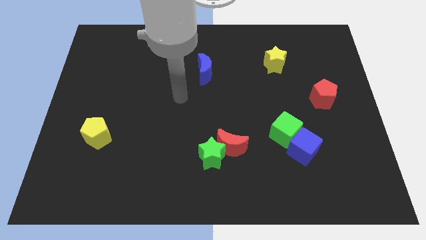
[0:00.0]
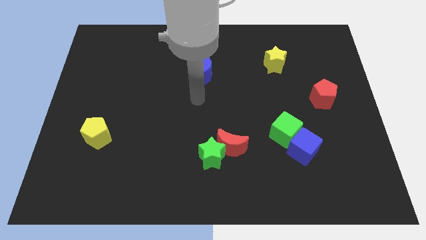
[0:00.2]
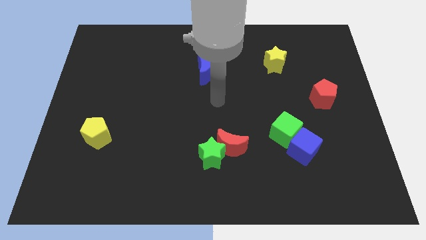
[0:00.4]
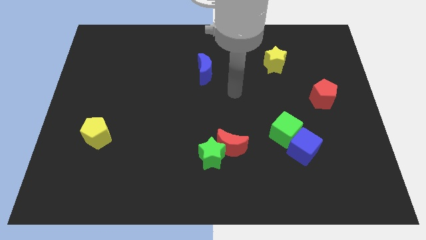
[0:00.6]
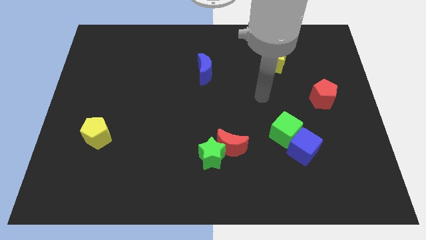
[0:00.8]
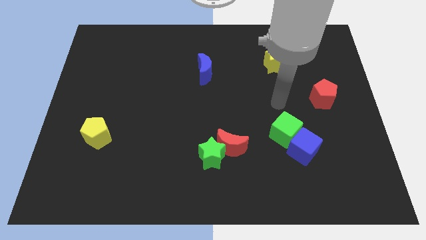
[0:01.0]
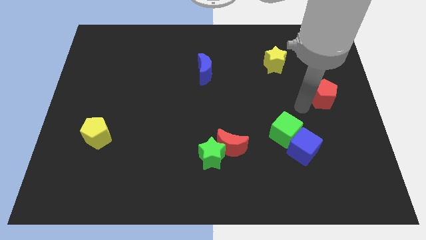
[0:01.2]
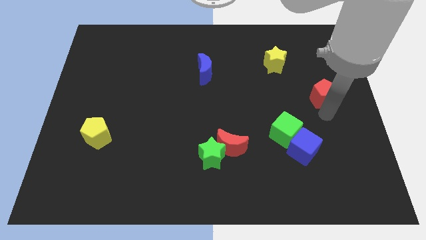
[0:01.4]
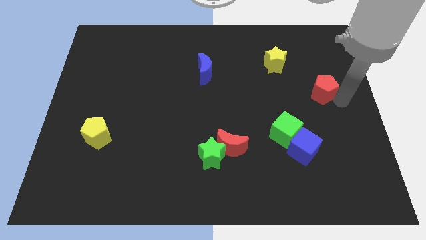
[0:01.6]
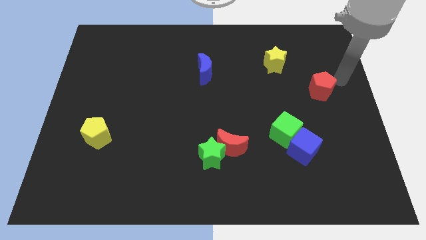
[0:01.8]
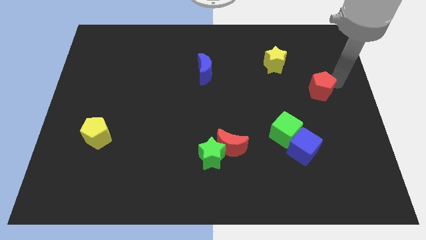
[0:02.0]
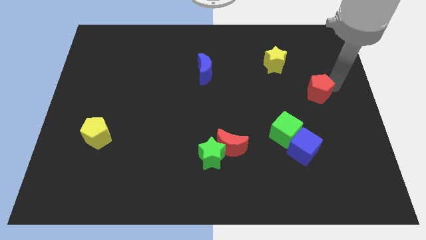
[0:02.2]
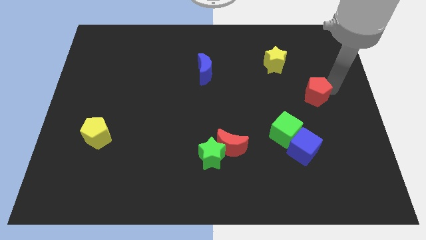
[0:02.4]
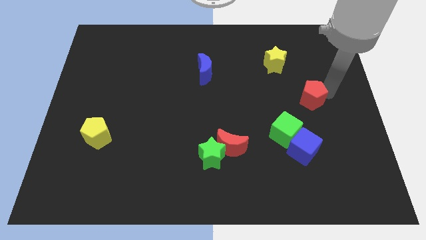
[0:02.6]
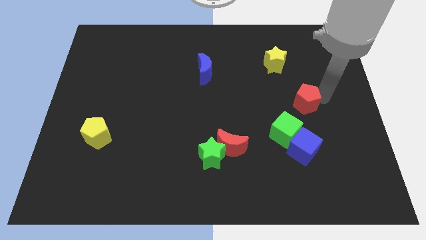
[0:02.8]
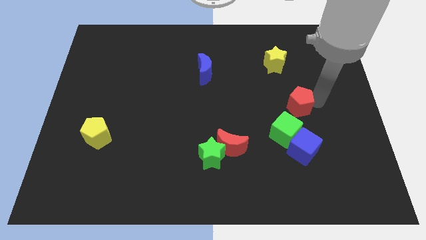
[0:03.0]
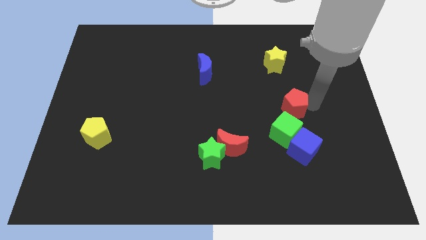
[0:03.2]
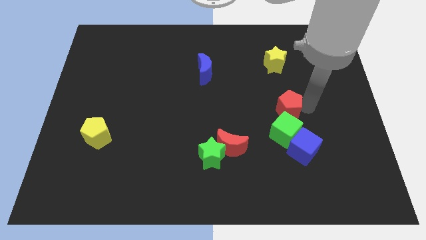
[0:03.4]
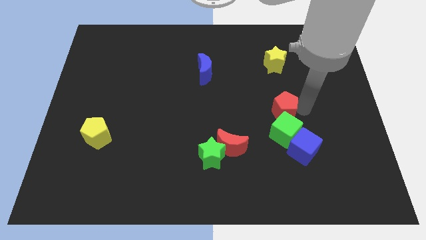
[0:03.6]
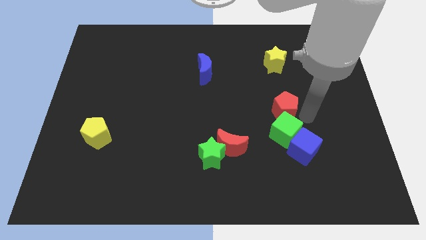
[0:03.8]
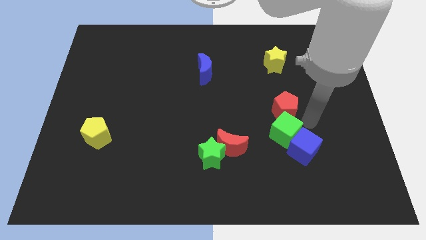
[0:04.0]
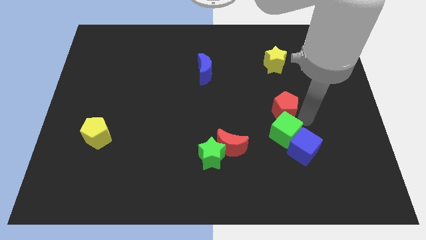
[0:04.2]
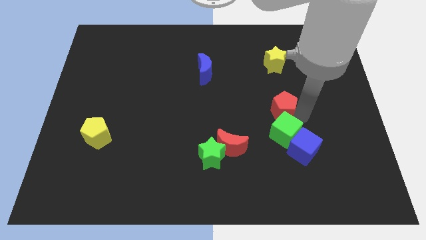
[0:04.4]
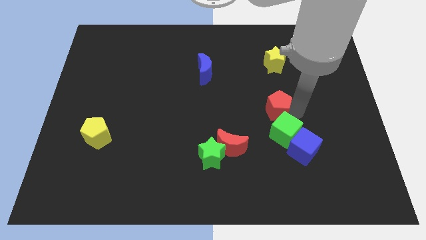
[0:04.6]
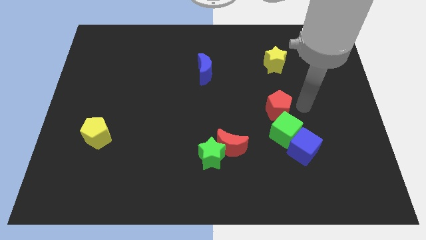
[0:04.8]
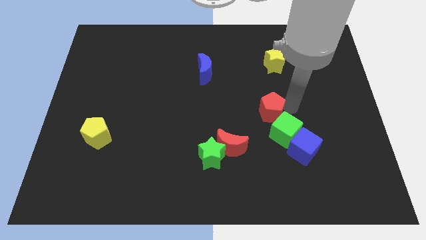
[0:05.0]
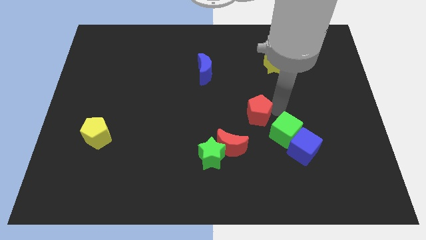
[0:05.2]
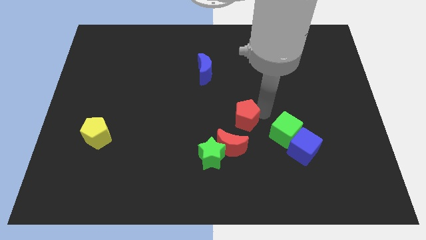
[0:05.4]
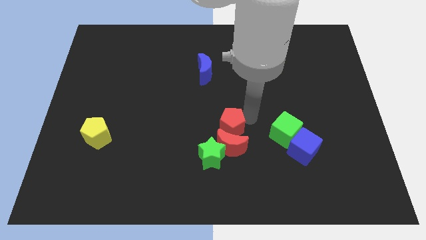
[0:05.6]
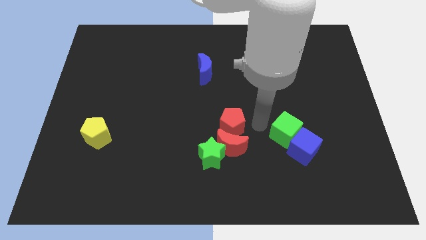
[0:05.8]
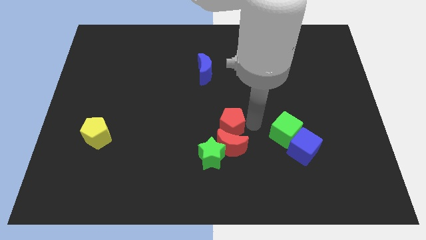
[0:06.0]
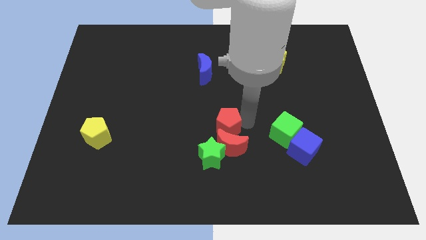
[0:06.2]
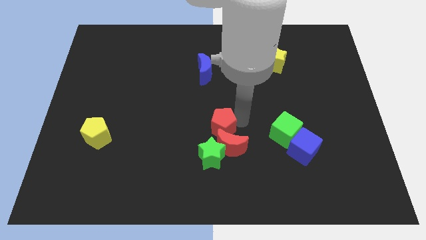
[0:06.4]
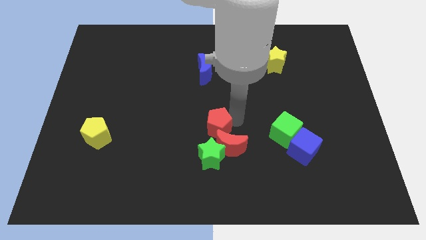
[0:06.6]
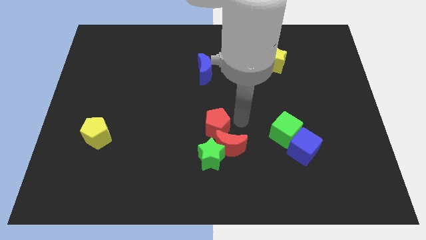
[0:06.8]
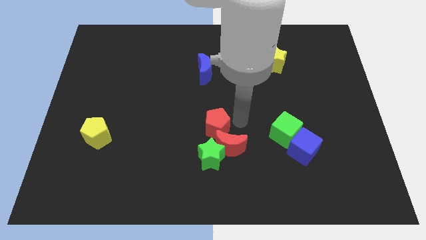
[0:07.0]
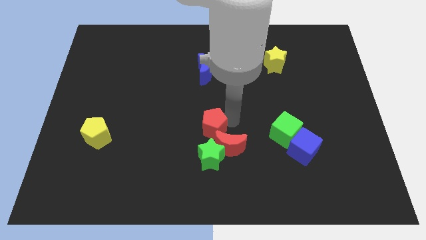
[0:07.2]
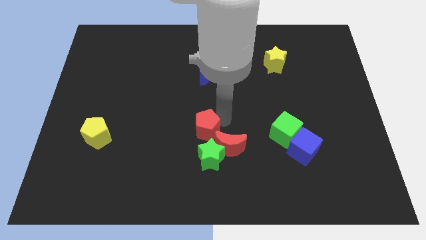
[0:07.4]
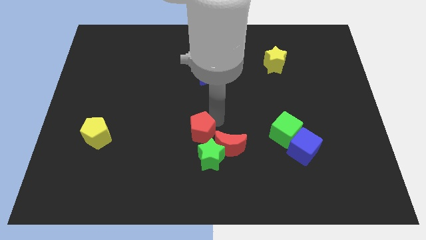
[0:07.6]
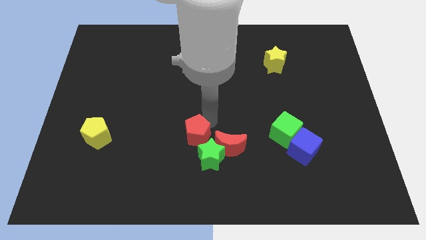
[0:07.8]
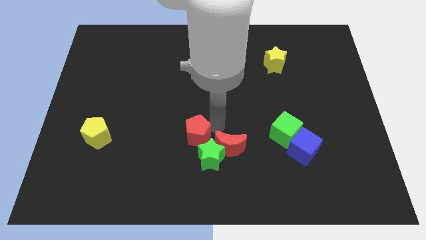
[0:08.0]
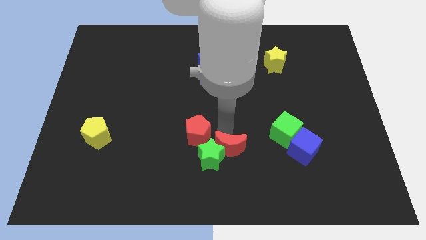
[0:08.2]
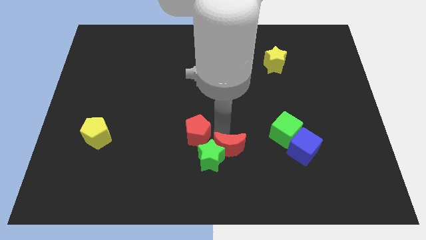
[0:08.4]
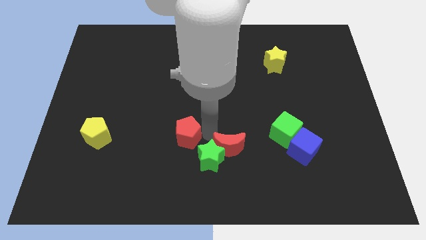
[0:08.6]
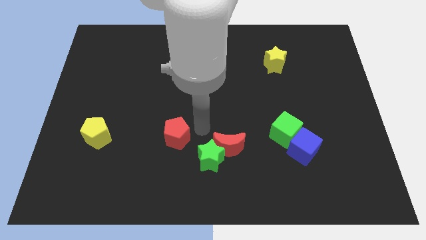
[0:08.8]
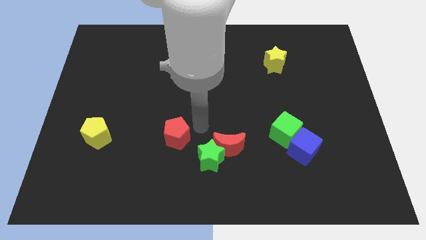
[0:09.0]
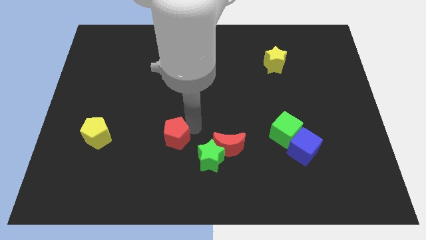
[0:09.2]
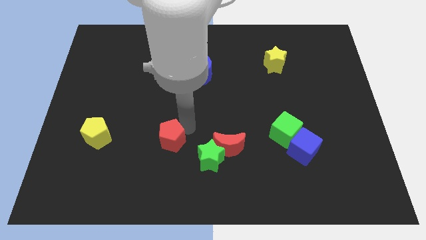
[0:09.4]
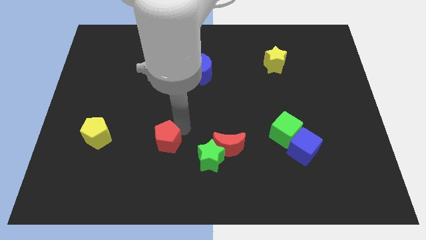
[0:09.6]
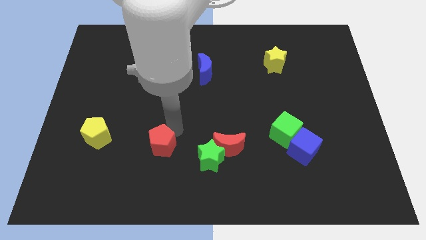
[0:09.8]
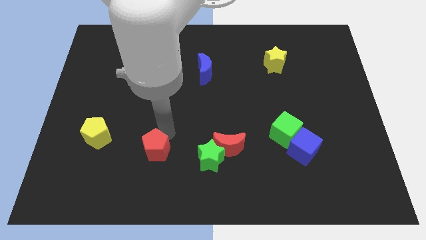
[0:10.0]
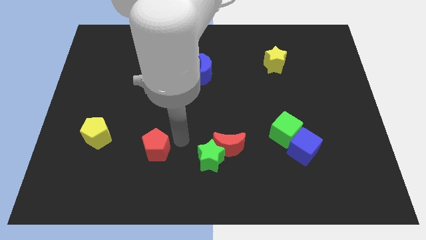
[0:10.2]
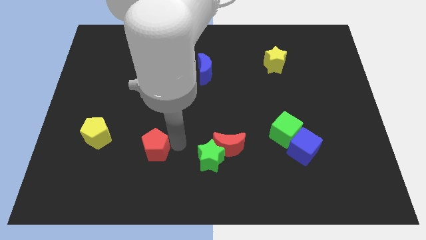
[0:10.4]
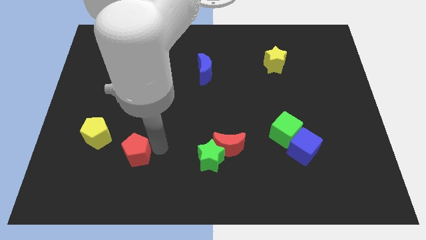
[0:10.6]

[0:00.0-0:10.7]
put the red pentagon diagonally down and to the right of the yellow pentagon
